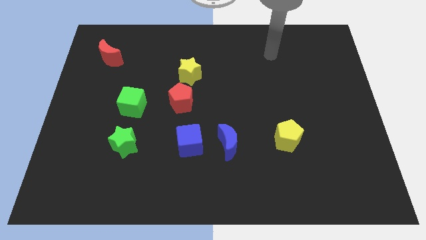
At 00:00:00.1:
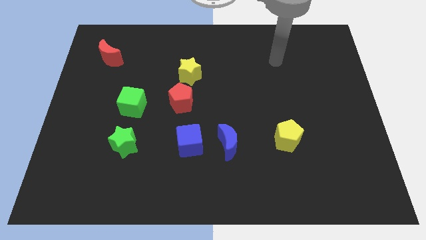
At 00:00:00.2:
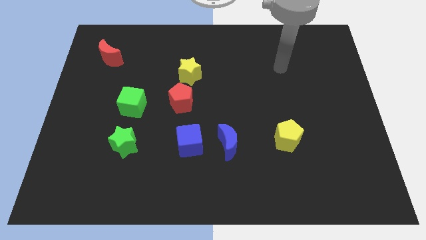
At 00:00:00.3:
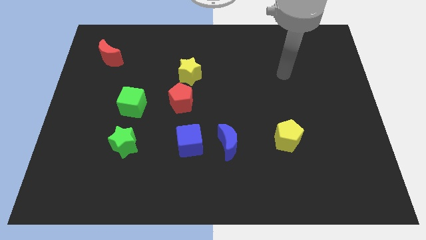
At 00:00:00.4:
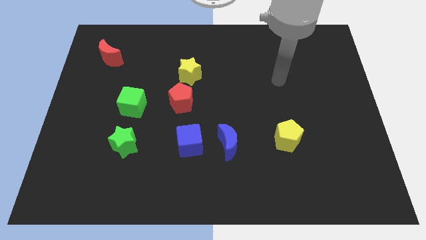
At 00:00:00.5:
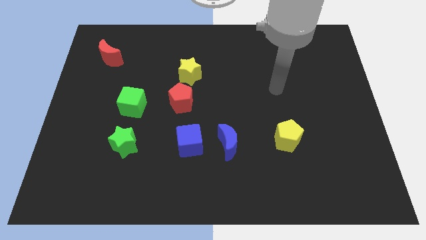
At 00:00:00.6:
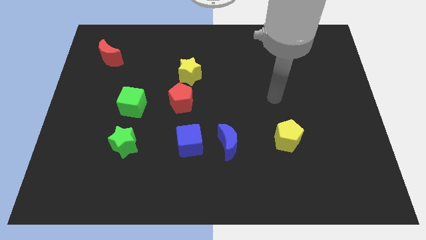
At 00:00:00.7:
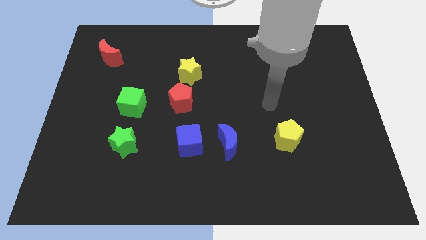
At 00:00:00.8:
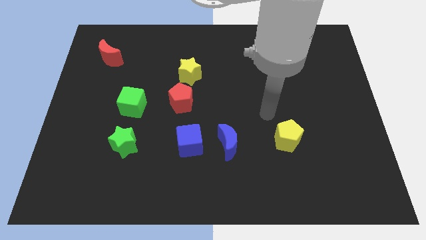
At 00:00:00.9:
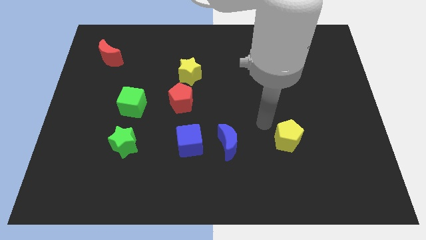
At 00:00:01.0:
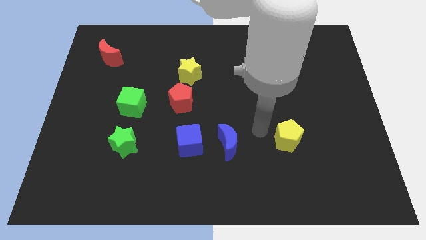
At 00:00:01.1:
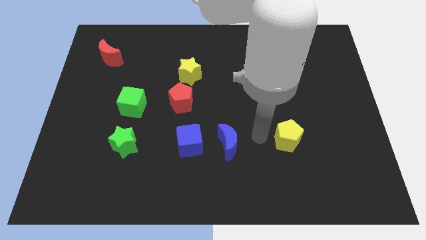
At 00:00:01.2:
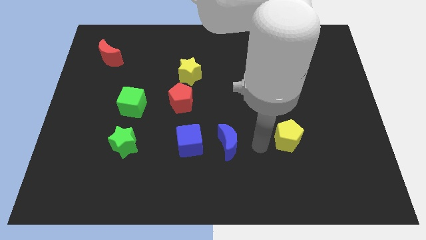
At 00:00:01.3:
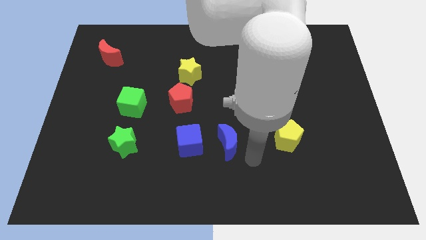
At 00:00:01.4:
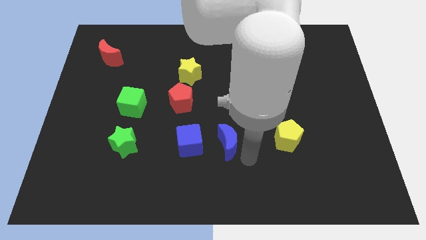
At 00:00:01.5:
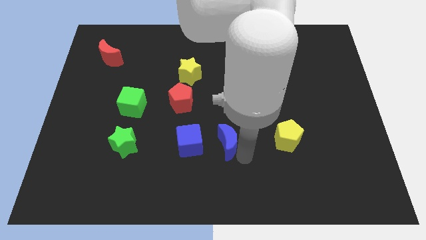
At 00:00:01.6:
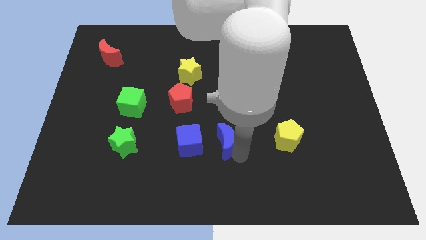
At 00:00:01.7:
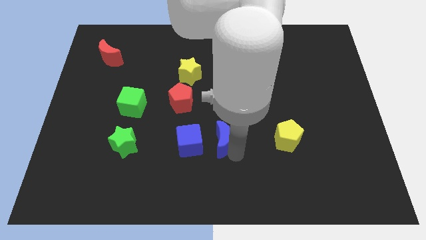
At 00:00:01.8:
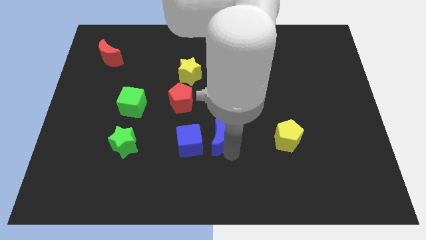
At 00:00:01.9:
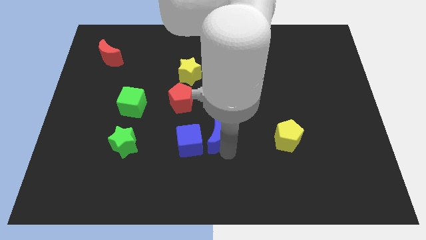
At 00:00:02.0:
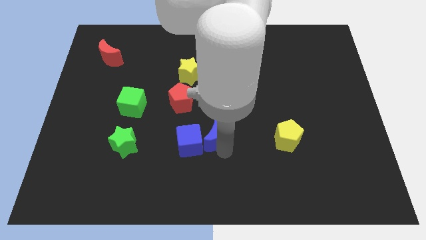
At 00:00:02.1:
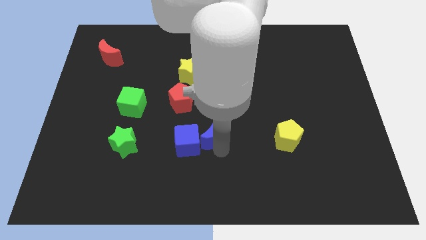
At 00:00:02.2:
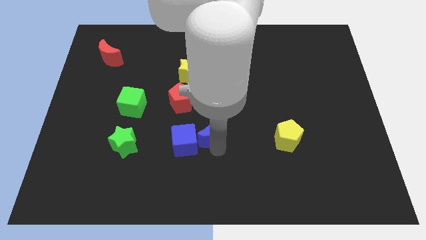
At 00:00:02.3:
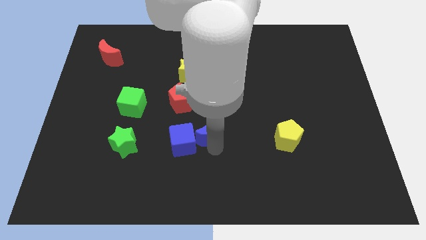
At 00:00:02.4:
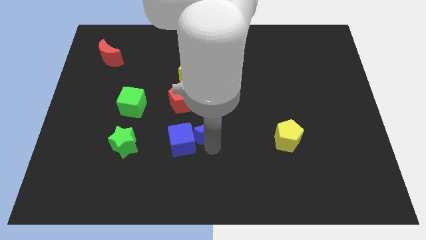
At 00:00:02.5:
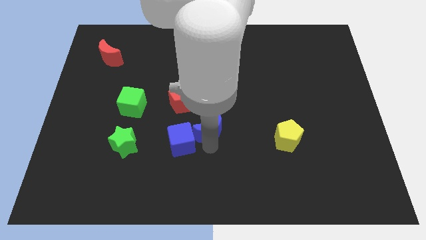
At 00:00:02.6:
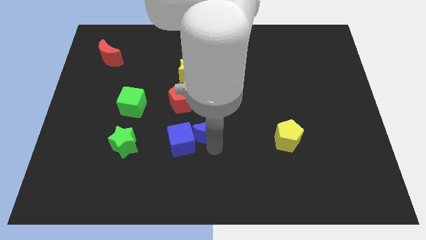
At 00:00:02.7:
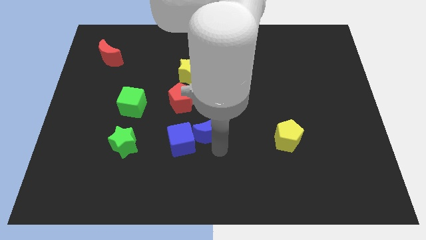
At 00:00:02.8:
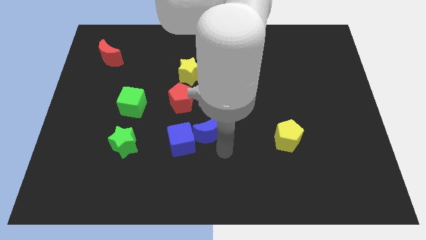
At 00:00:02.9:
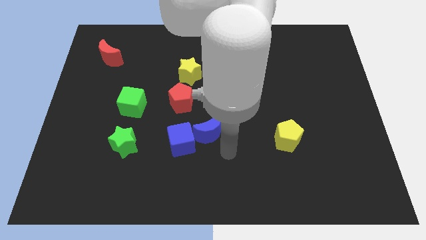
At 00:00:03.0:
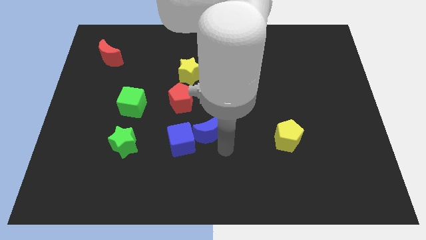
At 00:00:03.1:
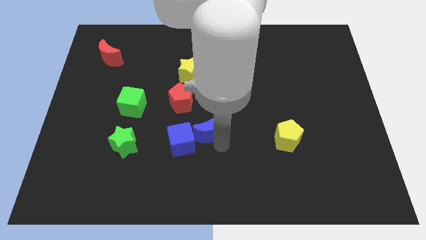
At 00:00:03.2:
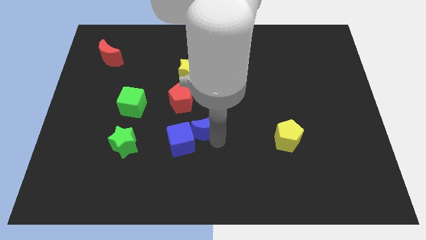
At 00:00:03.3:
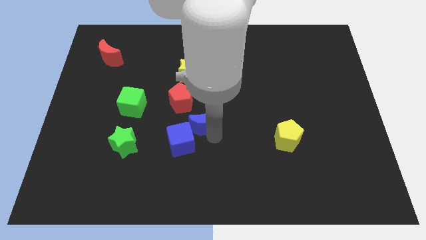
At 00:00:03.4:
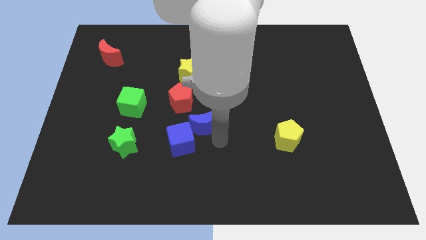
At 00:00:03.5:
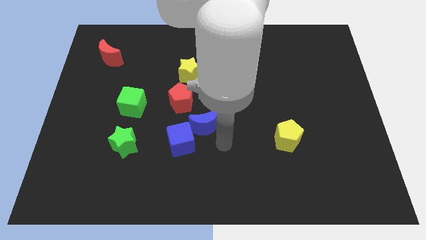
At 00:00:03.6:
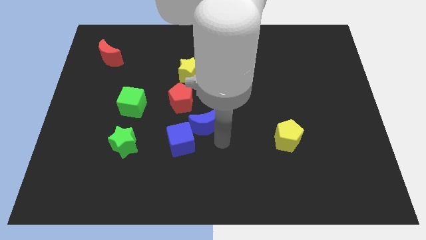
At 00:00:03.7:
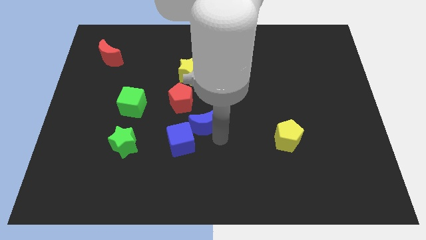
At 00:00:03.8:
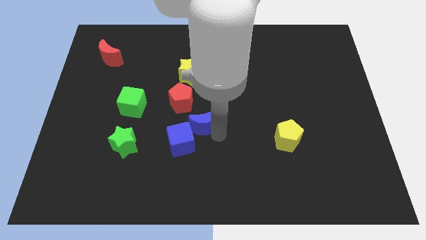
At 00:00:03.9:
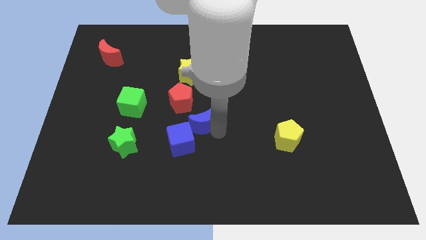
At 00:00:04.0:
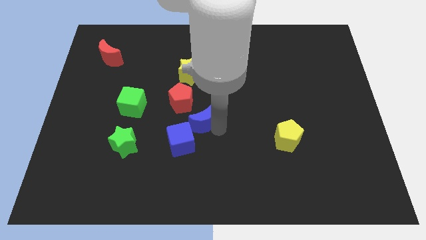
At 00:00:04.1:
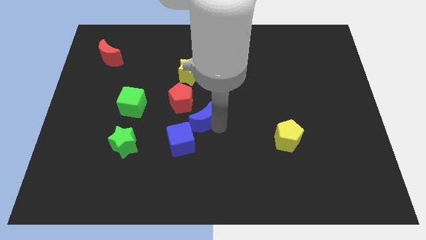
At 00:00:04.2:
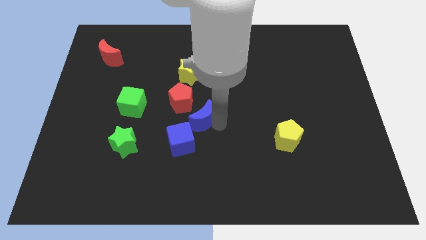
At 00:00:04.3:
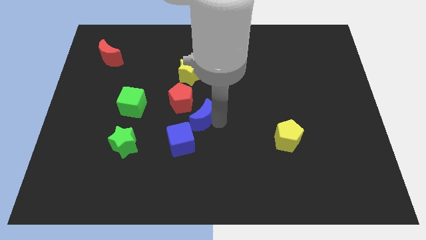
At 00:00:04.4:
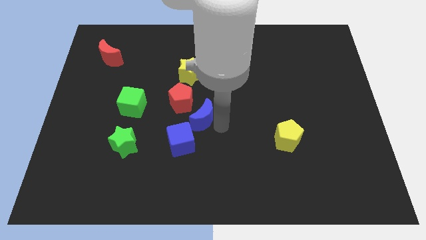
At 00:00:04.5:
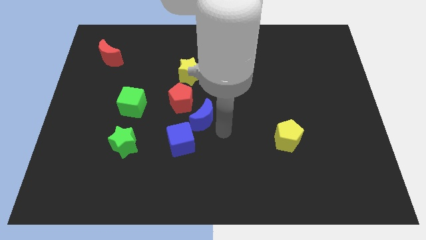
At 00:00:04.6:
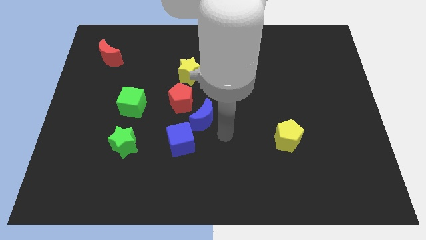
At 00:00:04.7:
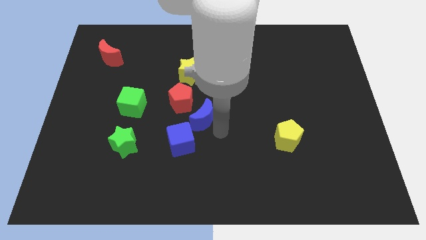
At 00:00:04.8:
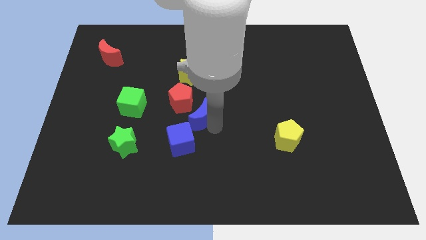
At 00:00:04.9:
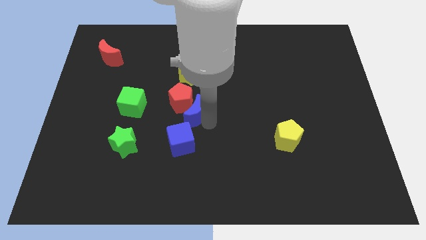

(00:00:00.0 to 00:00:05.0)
move the blue moon next to the red pentagon

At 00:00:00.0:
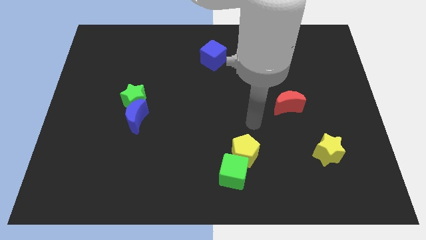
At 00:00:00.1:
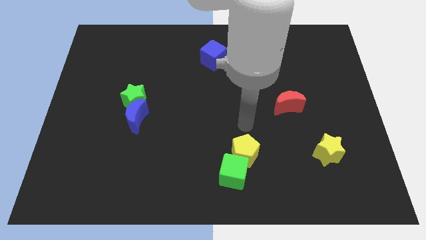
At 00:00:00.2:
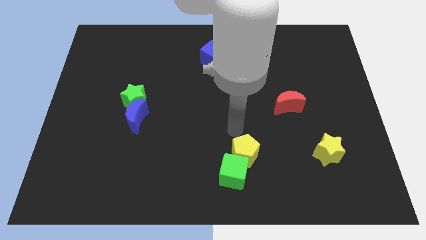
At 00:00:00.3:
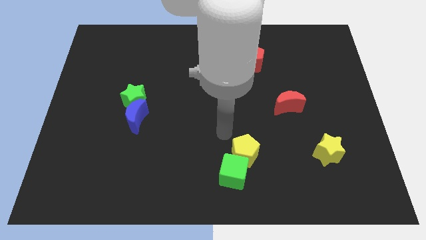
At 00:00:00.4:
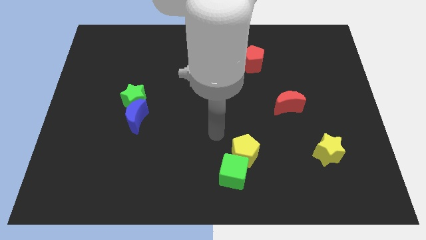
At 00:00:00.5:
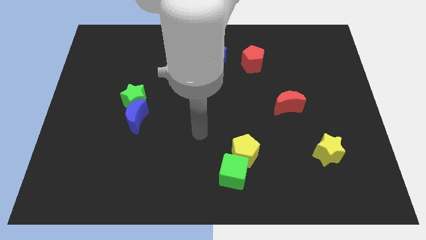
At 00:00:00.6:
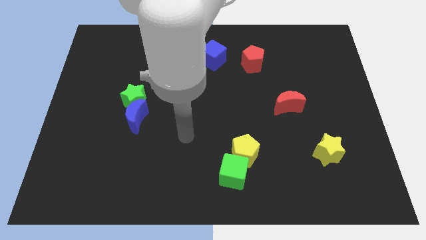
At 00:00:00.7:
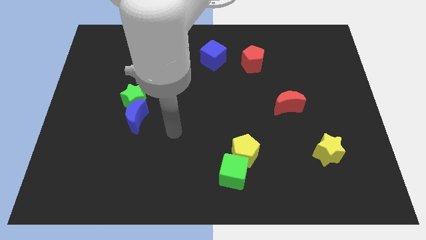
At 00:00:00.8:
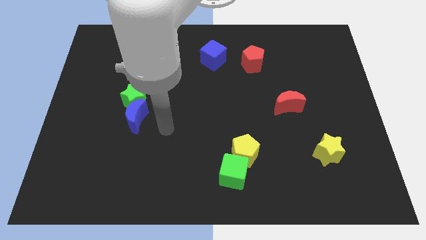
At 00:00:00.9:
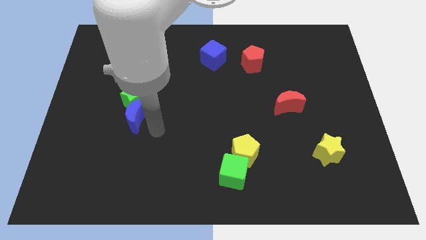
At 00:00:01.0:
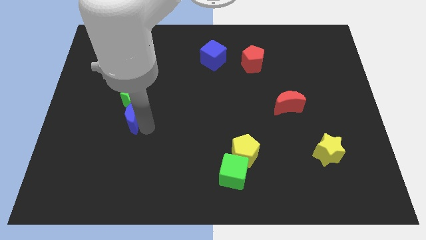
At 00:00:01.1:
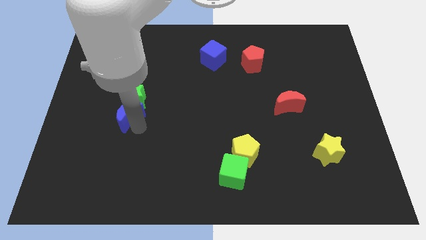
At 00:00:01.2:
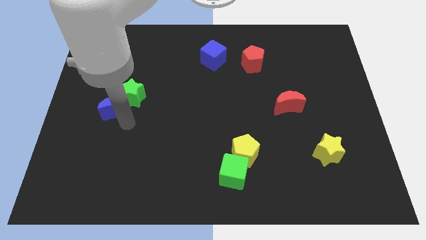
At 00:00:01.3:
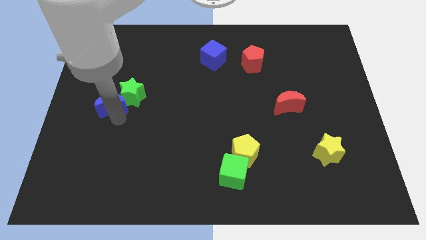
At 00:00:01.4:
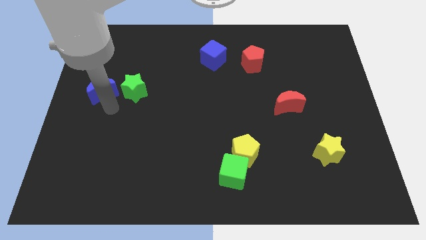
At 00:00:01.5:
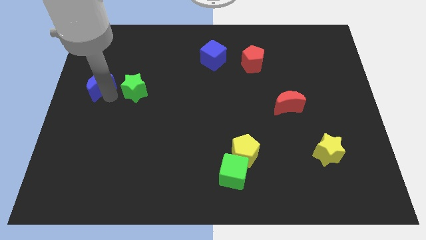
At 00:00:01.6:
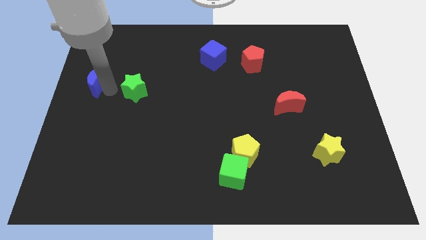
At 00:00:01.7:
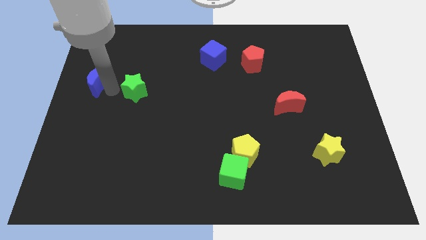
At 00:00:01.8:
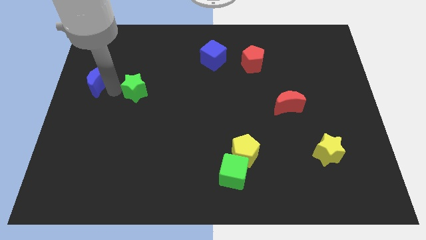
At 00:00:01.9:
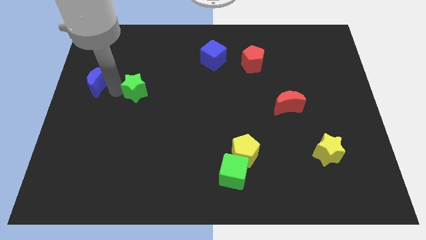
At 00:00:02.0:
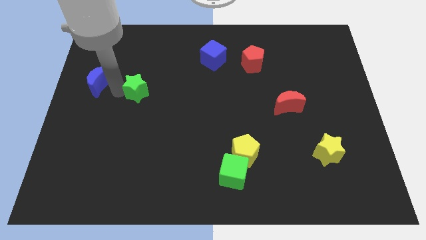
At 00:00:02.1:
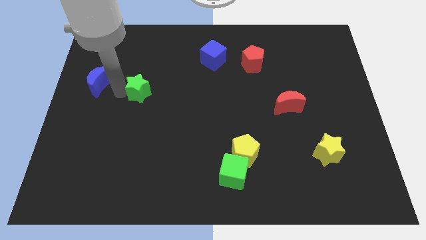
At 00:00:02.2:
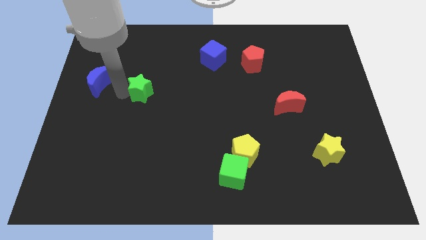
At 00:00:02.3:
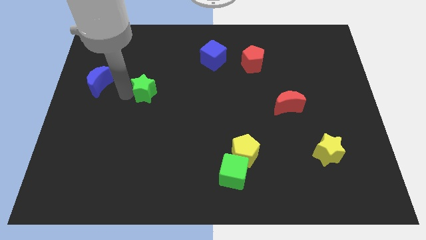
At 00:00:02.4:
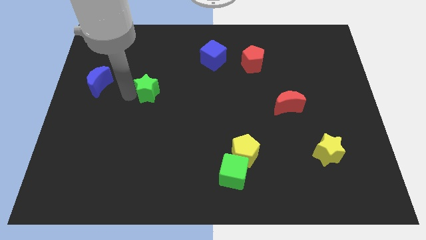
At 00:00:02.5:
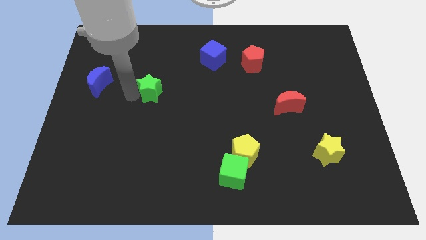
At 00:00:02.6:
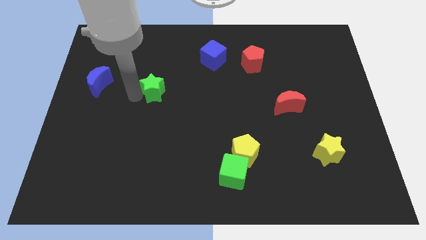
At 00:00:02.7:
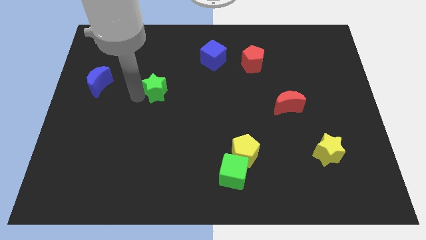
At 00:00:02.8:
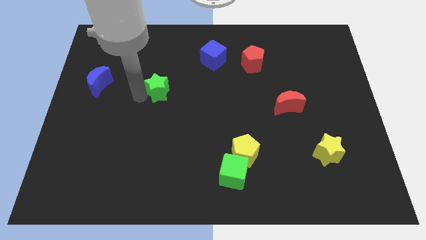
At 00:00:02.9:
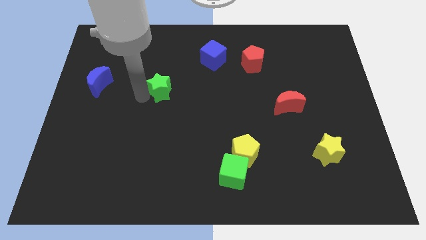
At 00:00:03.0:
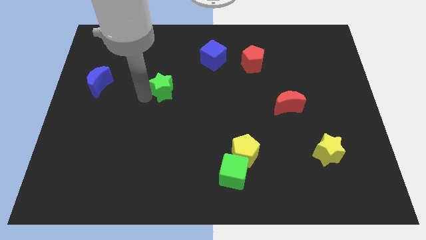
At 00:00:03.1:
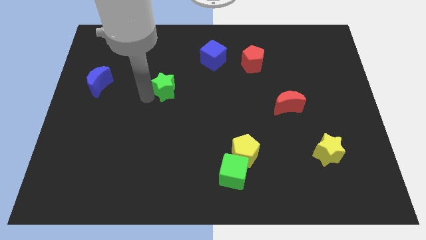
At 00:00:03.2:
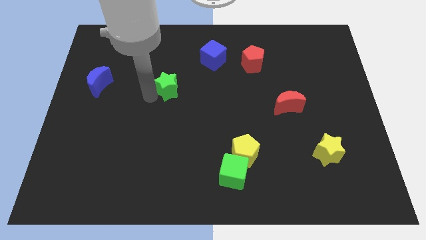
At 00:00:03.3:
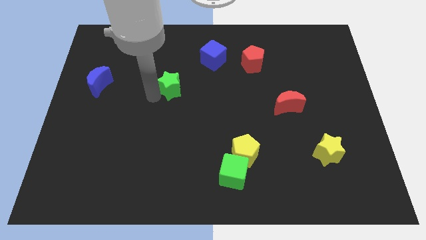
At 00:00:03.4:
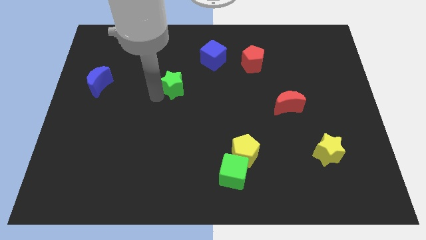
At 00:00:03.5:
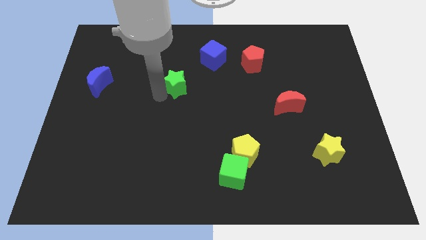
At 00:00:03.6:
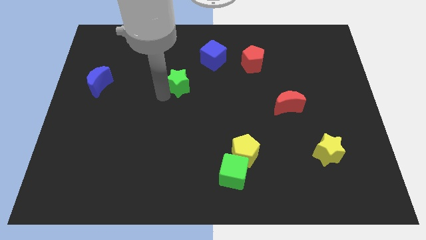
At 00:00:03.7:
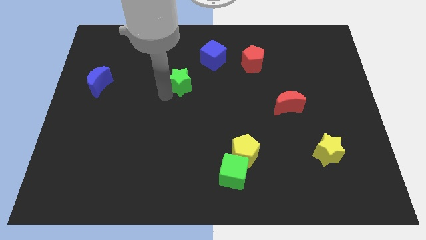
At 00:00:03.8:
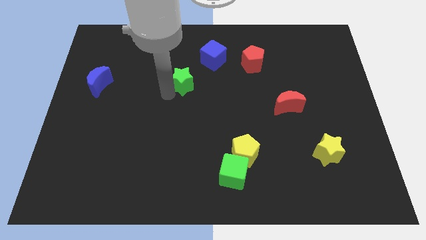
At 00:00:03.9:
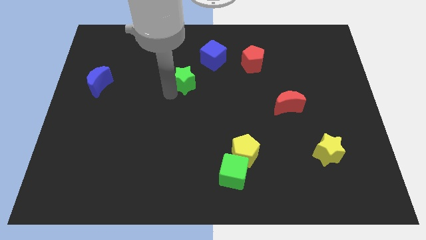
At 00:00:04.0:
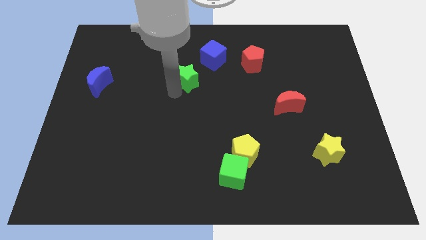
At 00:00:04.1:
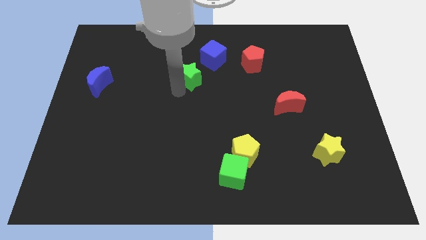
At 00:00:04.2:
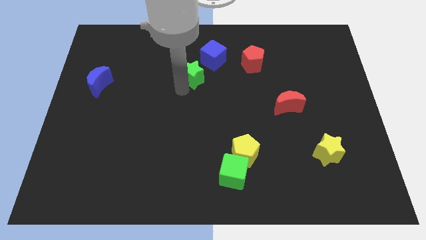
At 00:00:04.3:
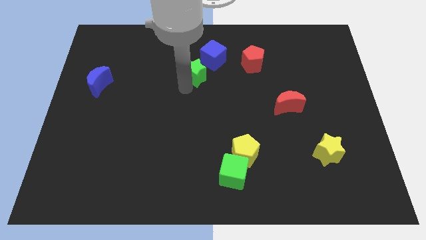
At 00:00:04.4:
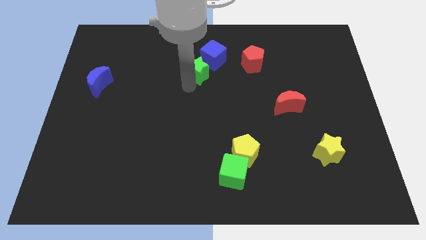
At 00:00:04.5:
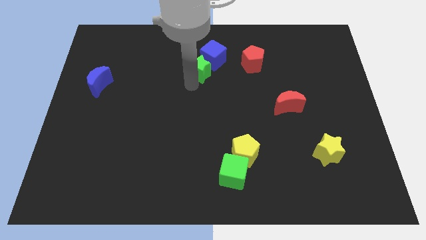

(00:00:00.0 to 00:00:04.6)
put the green star next to the blue cube
